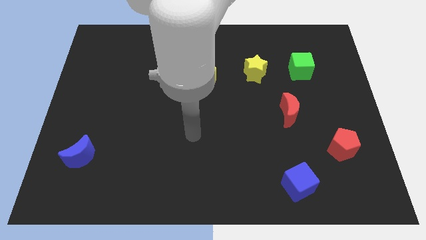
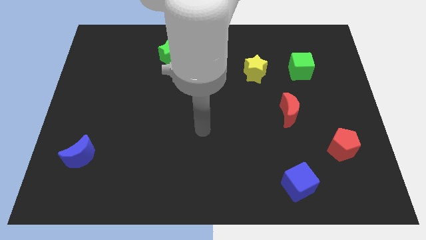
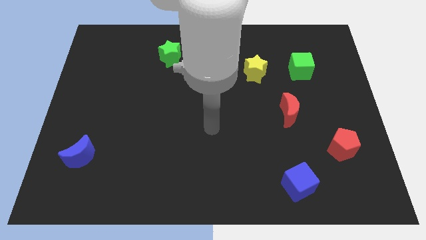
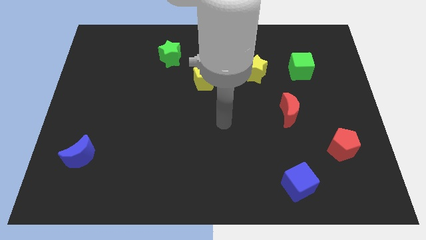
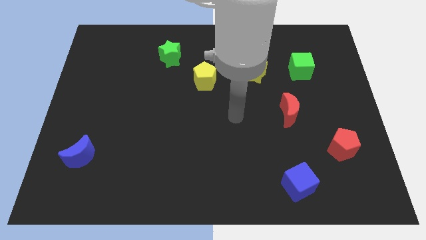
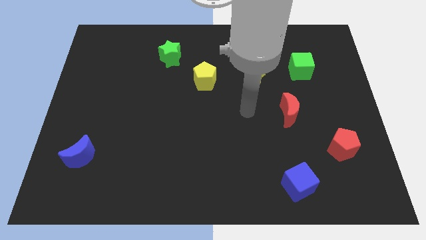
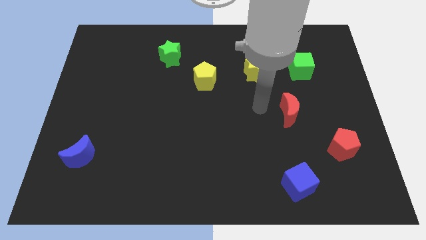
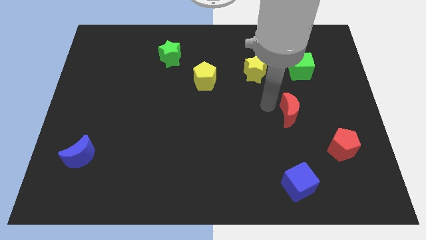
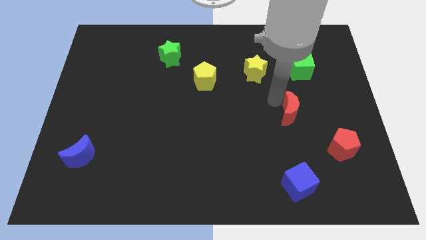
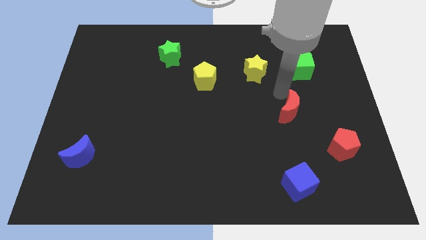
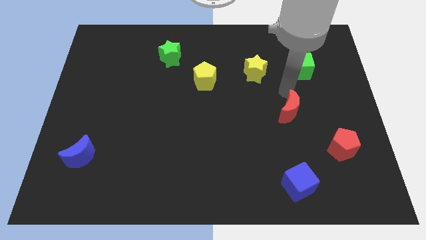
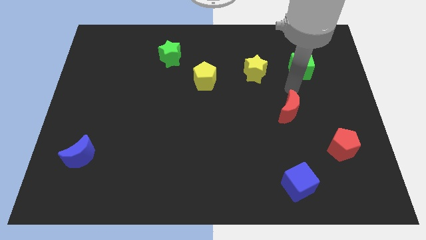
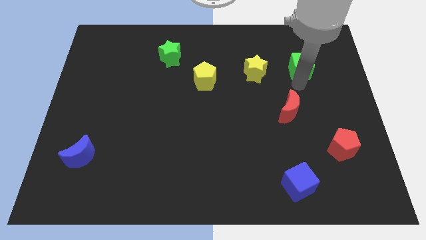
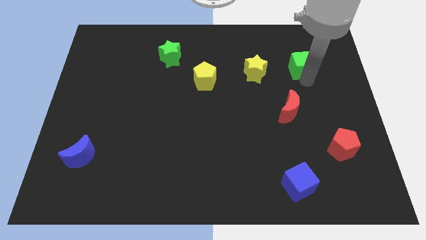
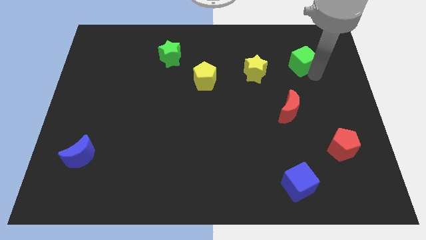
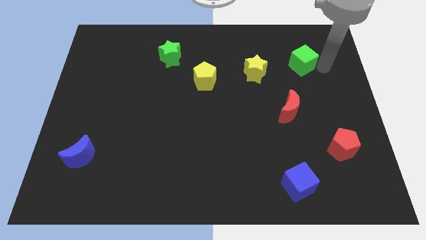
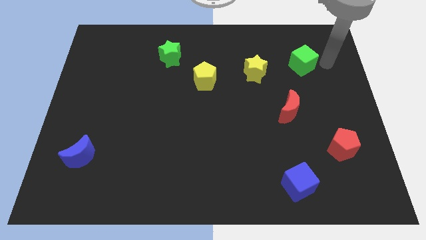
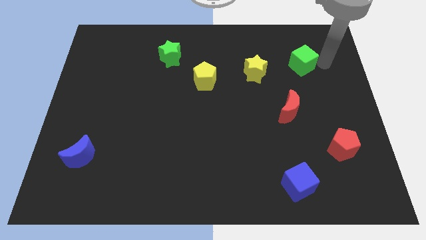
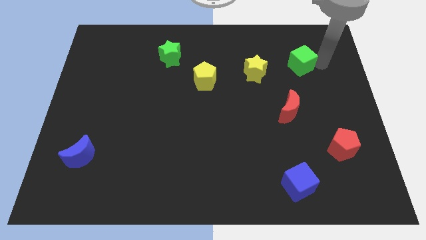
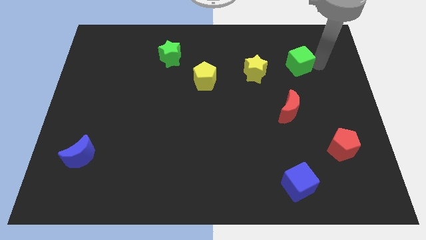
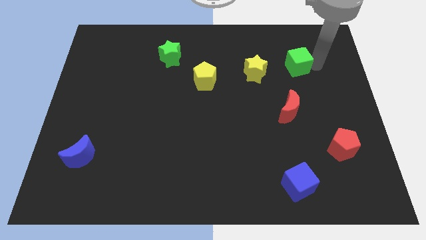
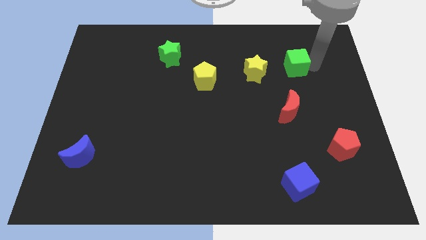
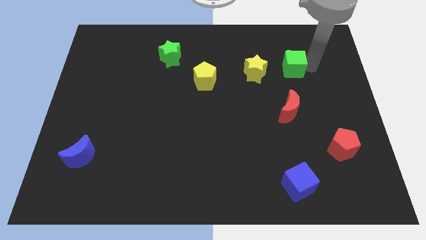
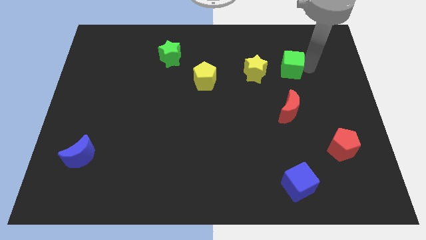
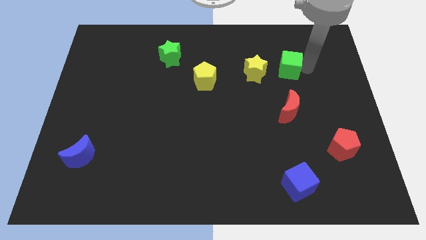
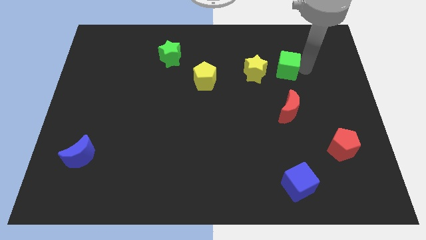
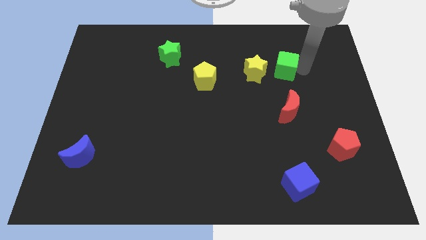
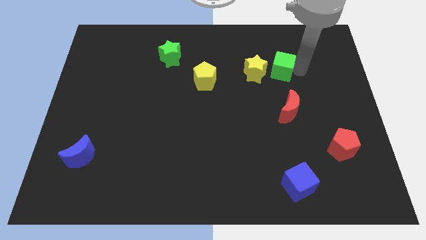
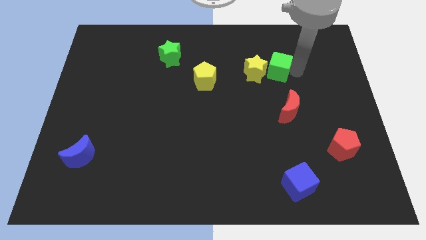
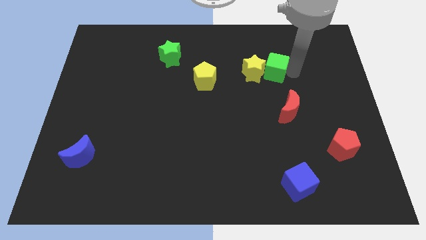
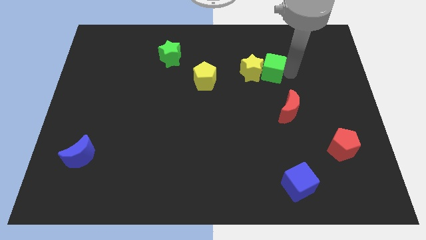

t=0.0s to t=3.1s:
slide the green cube left a little bit

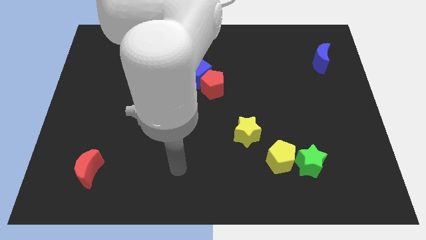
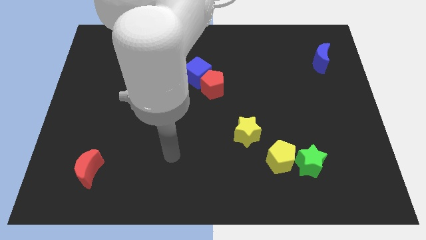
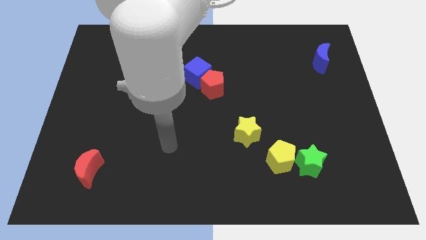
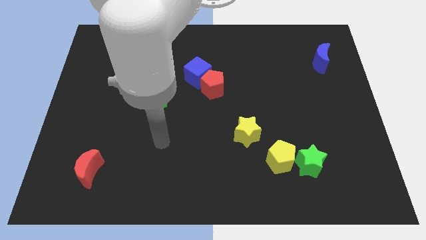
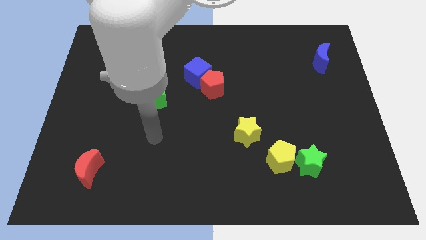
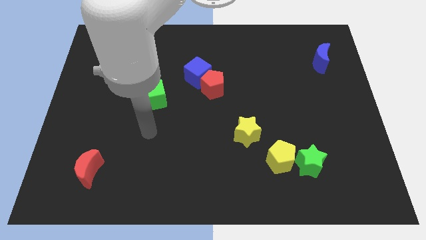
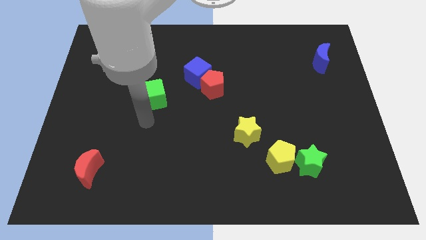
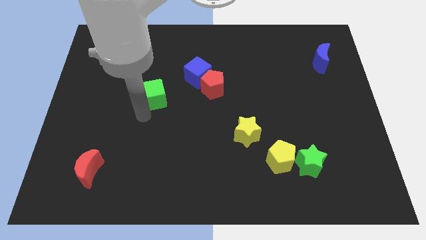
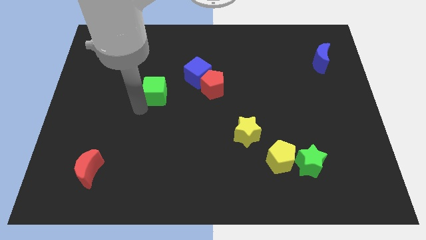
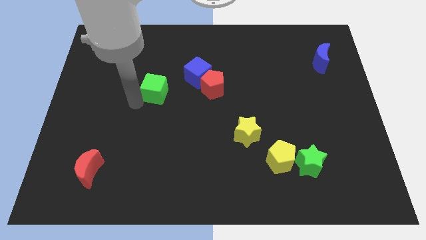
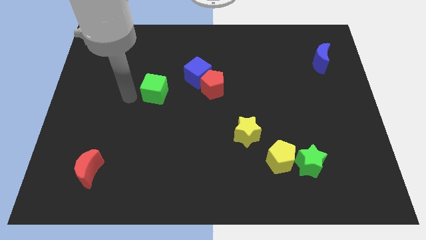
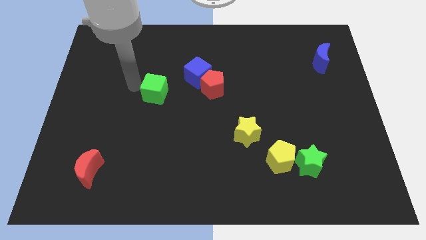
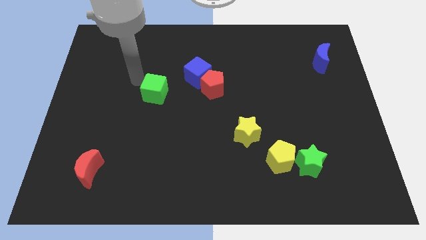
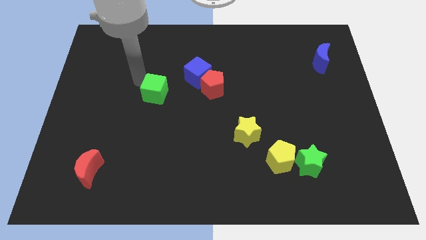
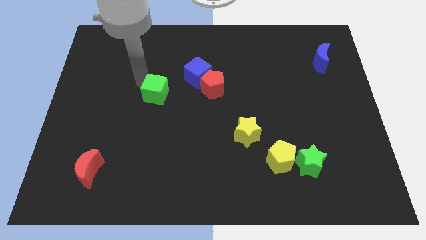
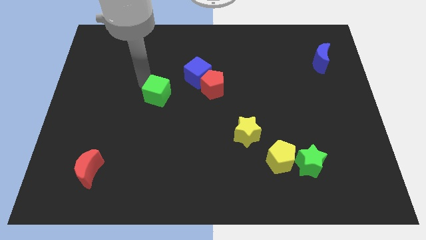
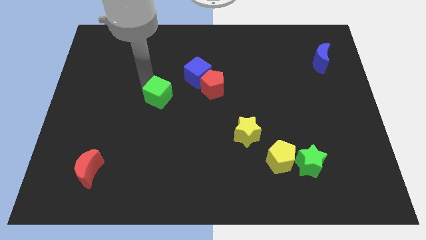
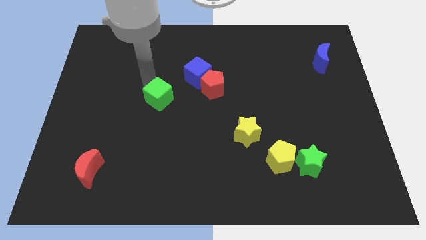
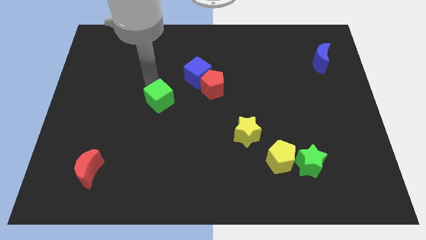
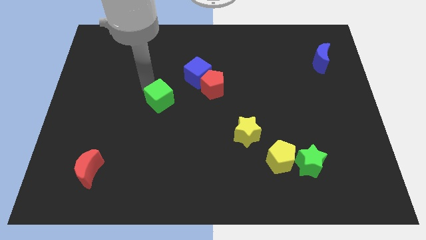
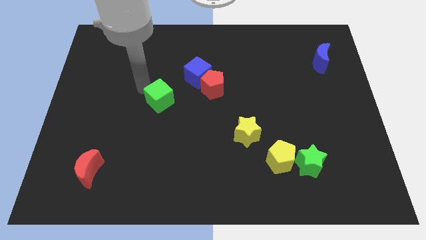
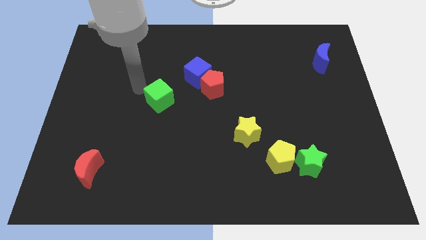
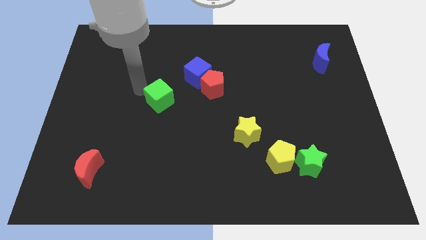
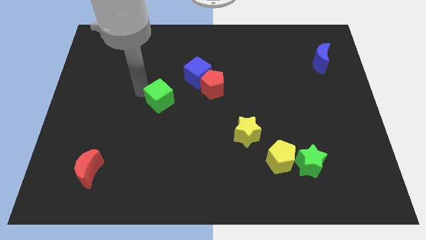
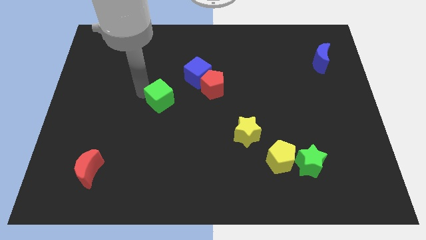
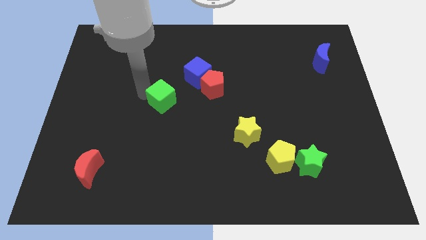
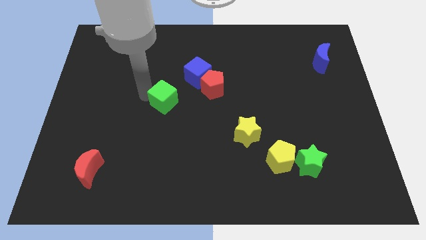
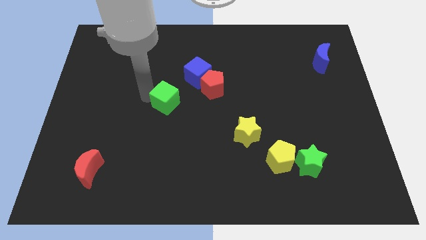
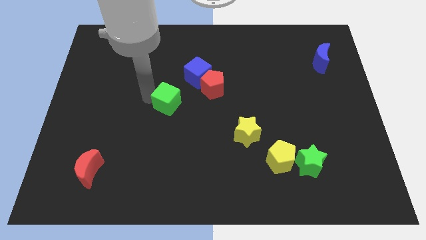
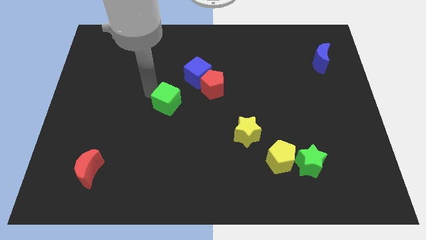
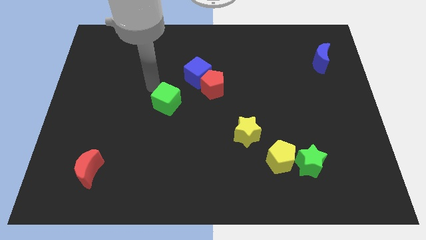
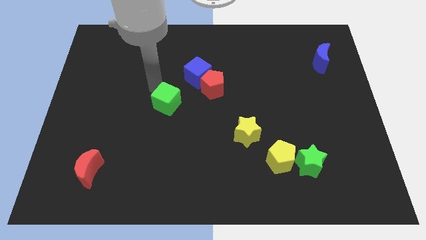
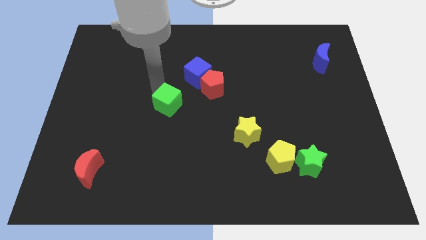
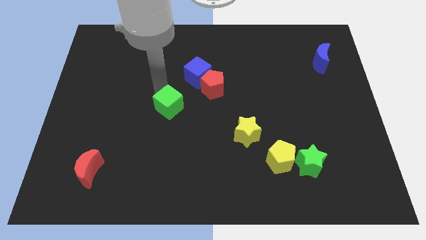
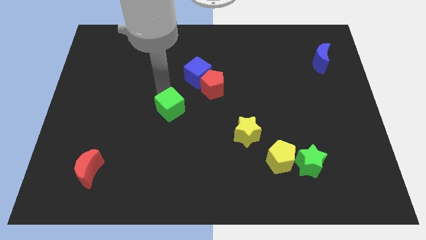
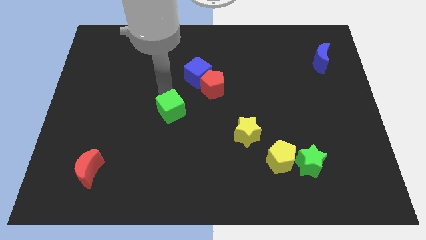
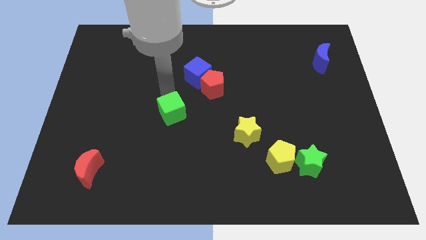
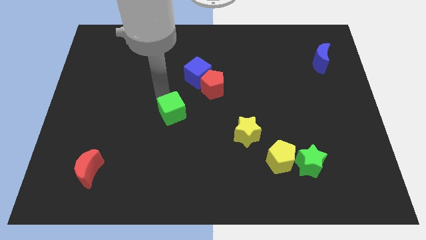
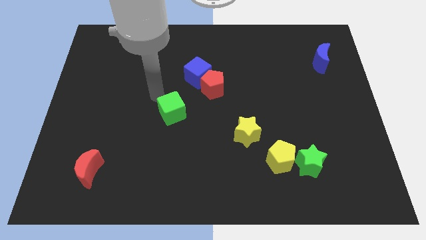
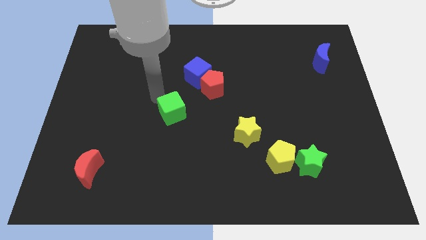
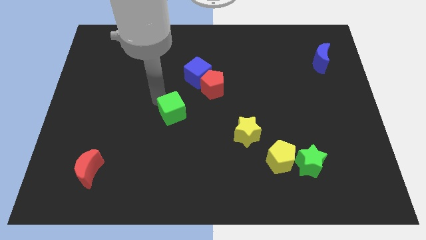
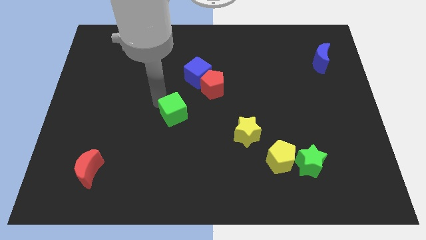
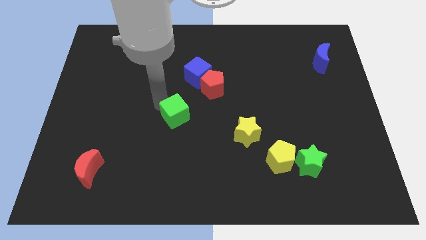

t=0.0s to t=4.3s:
slide the green cube down and then to the right a little

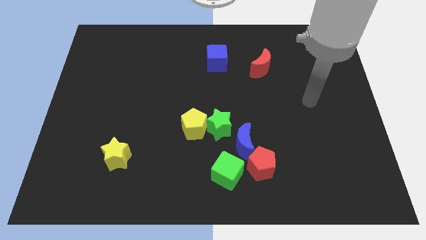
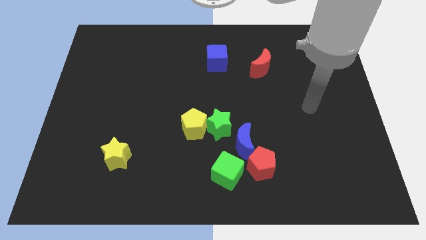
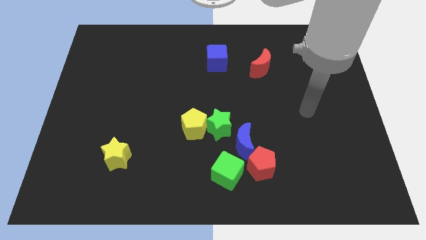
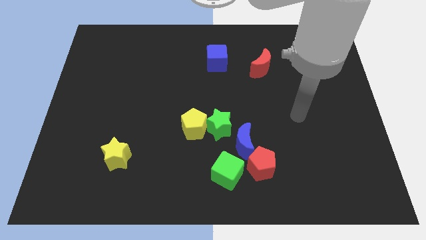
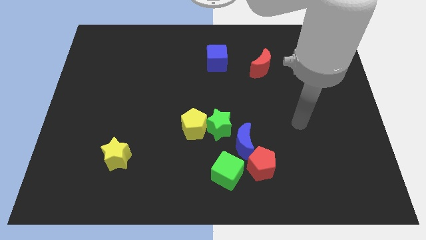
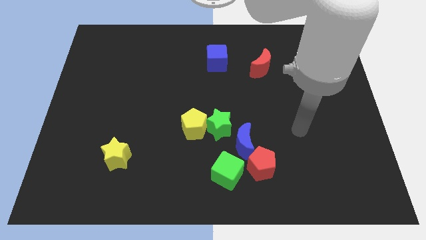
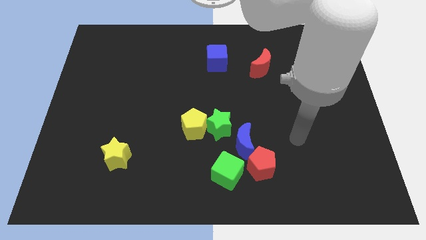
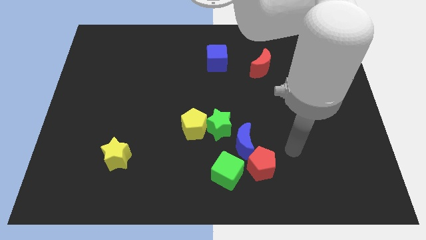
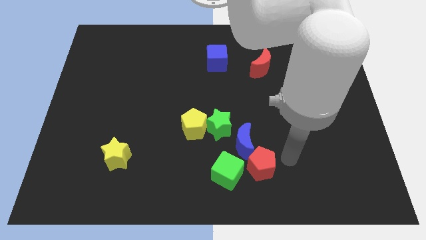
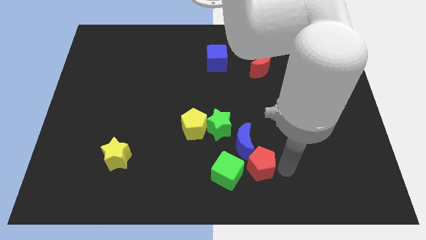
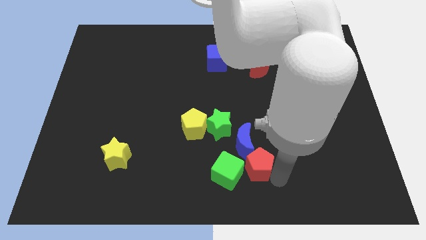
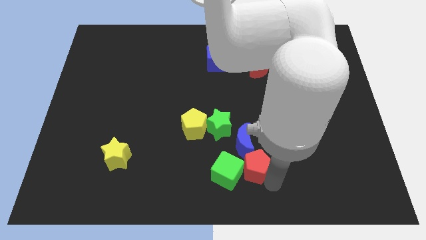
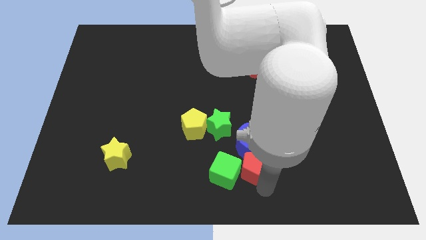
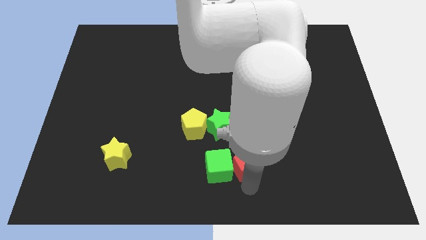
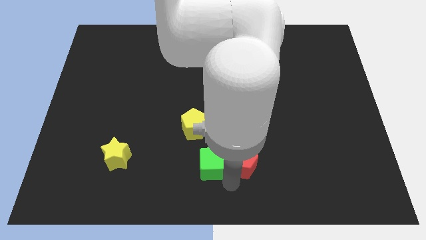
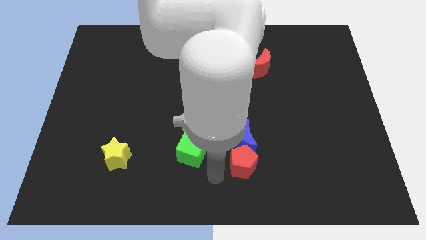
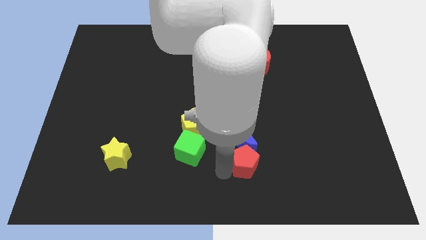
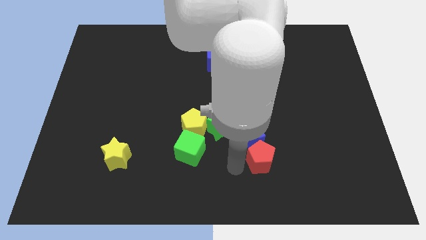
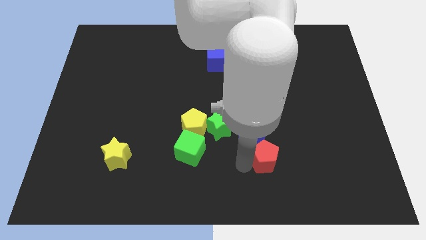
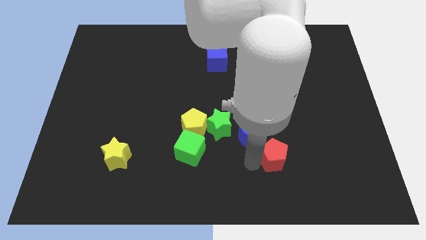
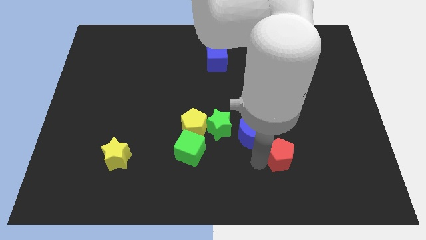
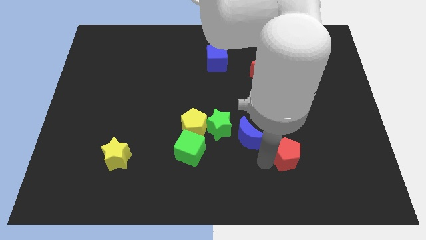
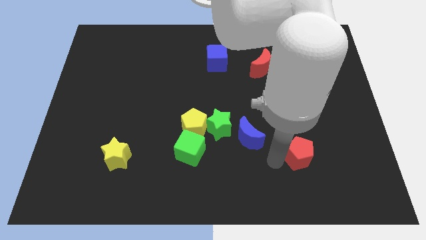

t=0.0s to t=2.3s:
push the red pentagon up and to the right diagonally somewhat
